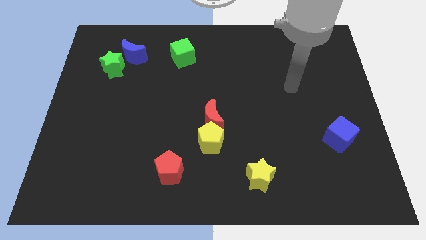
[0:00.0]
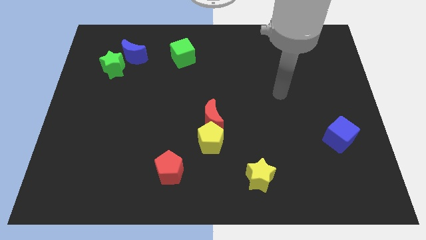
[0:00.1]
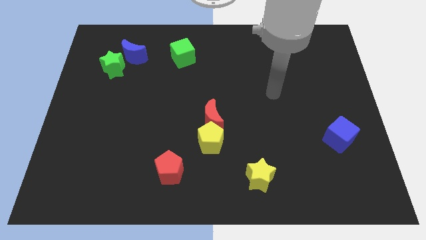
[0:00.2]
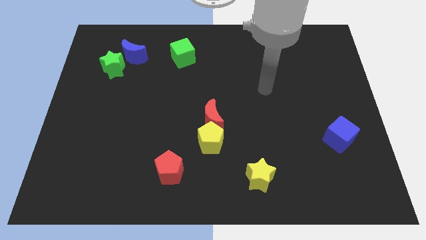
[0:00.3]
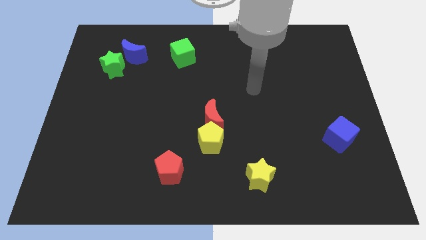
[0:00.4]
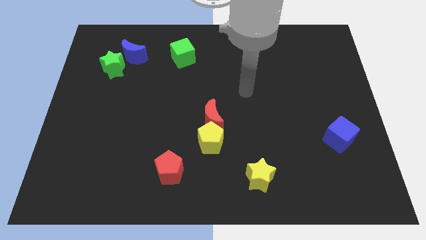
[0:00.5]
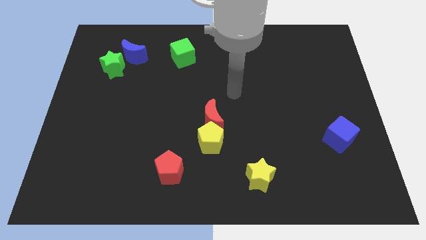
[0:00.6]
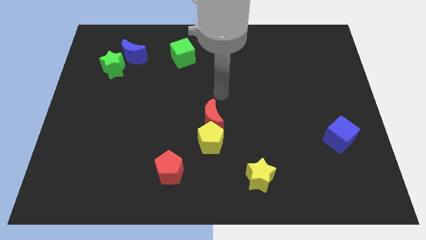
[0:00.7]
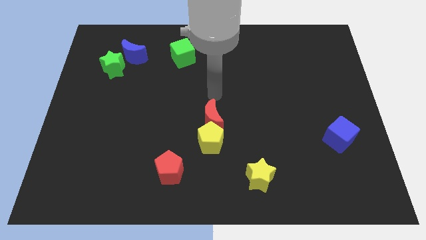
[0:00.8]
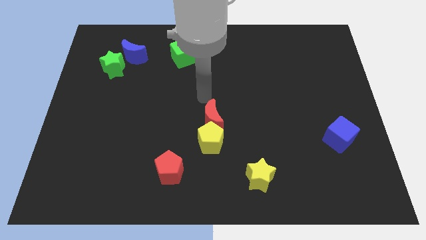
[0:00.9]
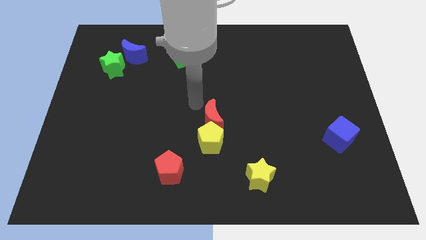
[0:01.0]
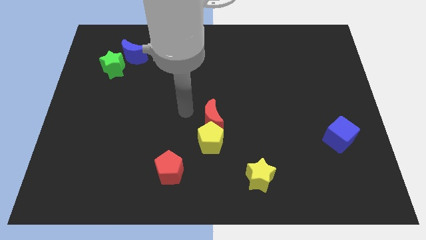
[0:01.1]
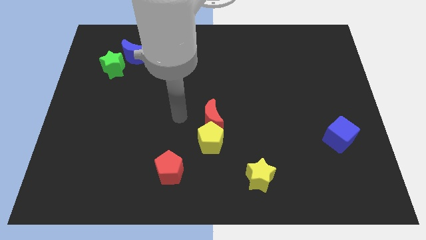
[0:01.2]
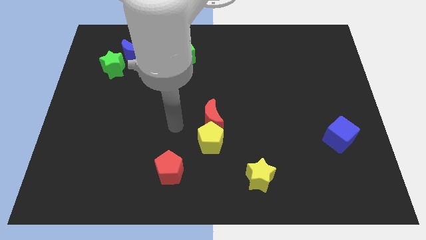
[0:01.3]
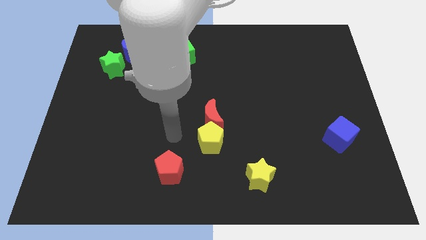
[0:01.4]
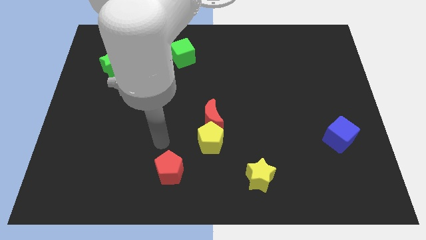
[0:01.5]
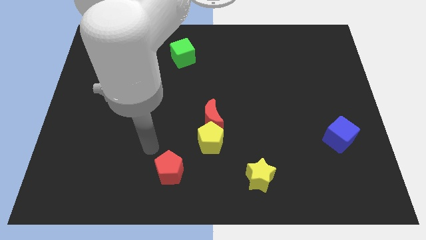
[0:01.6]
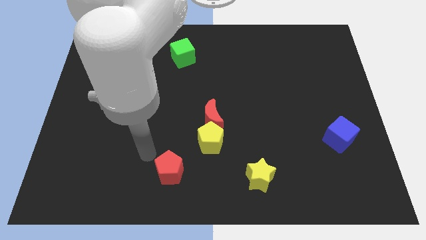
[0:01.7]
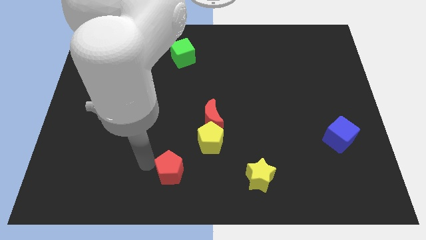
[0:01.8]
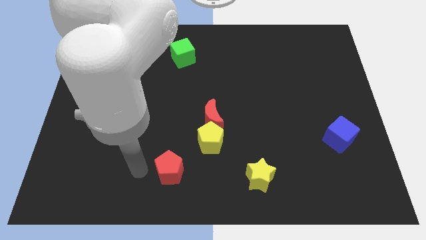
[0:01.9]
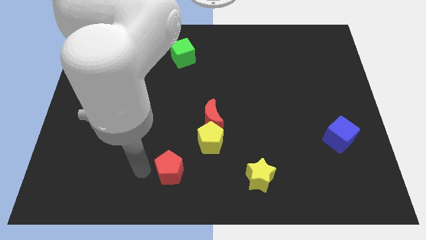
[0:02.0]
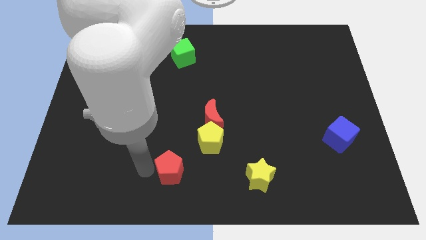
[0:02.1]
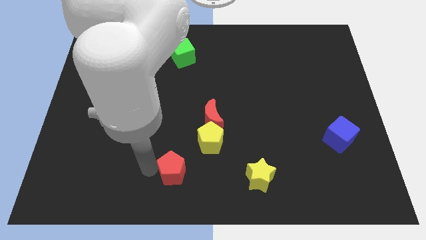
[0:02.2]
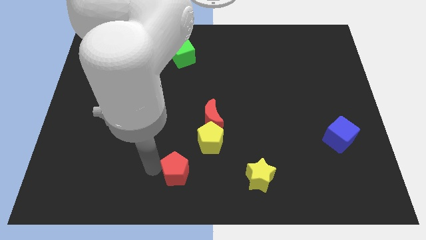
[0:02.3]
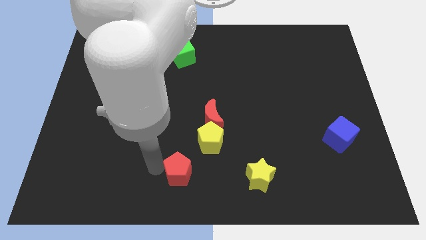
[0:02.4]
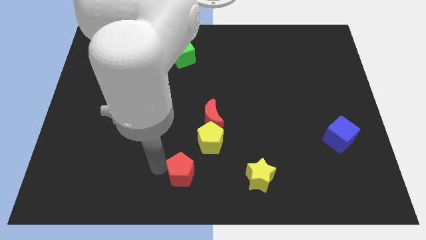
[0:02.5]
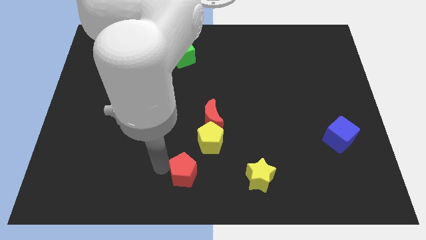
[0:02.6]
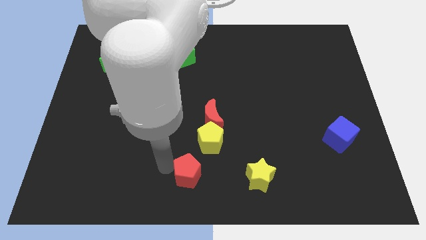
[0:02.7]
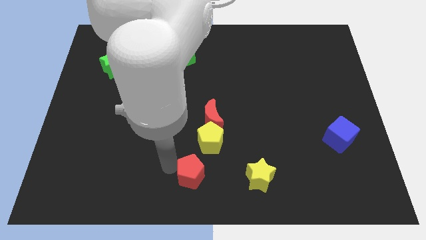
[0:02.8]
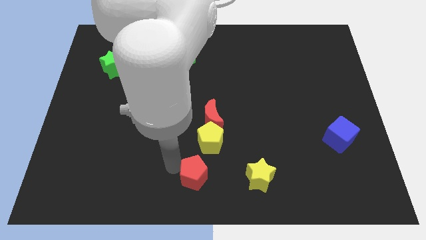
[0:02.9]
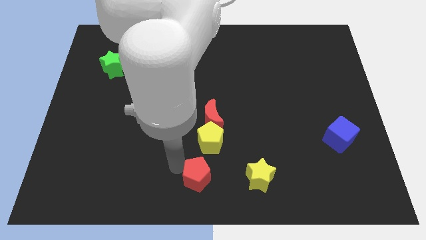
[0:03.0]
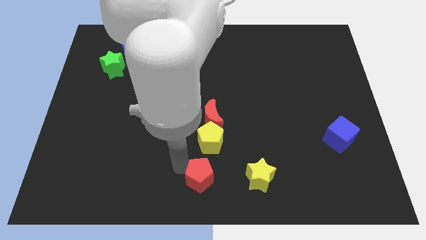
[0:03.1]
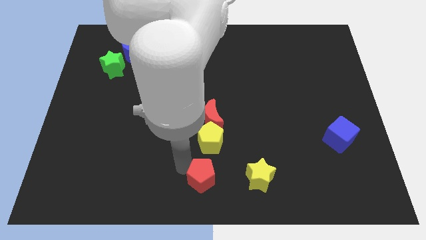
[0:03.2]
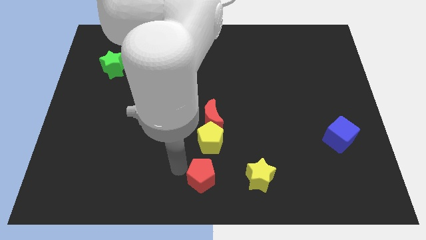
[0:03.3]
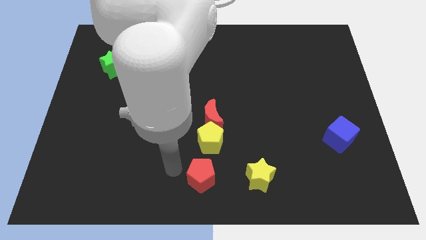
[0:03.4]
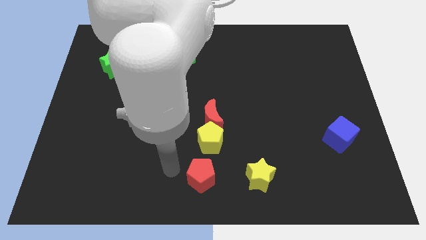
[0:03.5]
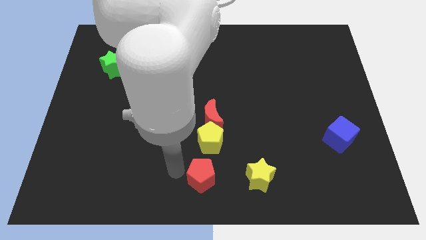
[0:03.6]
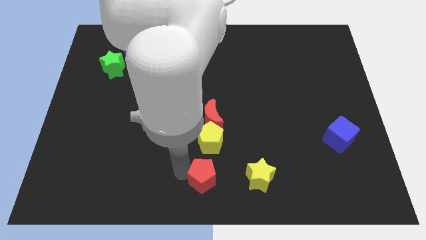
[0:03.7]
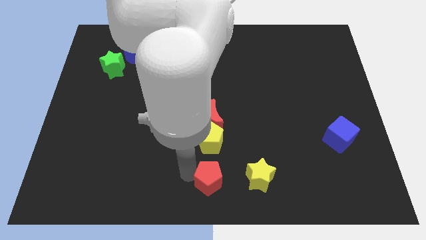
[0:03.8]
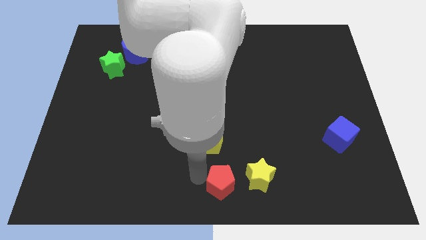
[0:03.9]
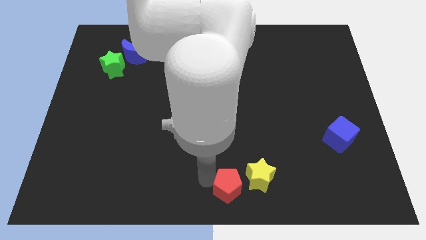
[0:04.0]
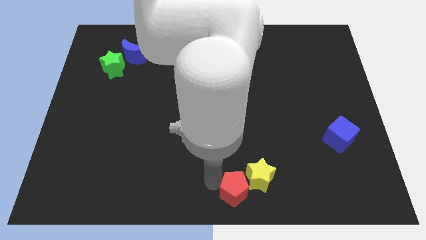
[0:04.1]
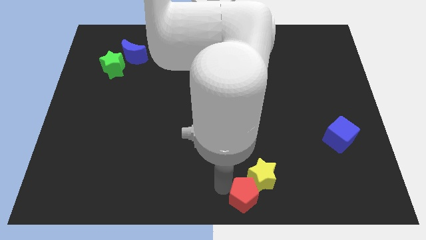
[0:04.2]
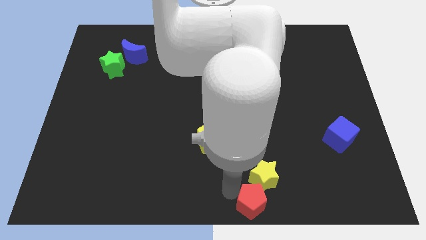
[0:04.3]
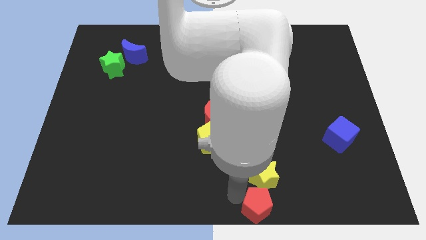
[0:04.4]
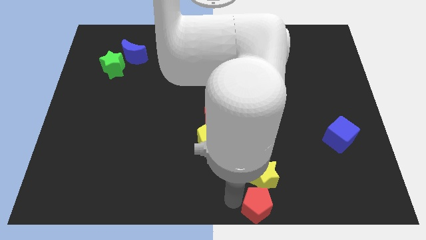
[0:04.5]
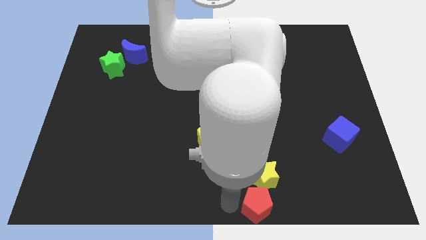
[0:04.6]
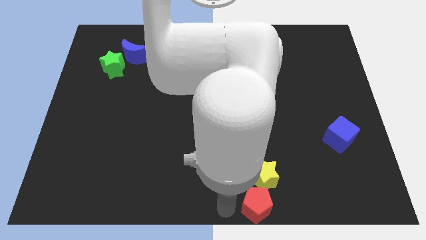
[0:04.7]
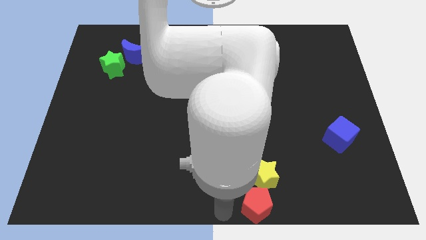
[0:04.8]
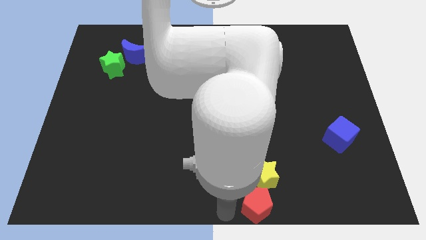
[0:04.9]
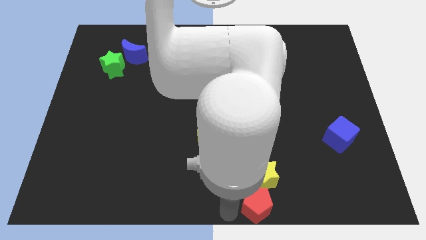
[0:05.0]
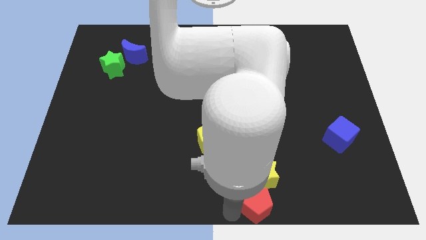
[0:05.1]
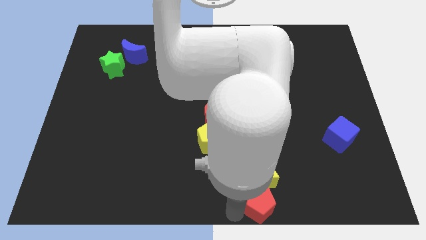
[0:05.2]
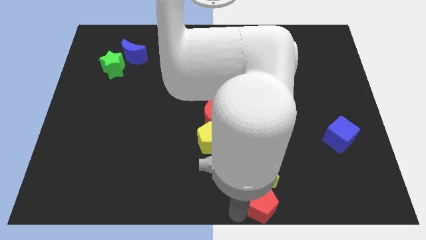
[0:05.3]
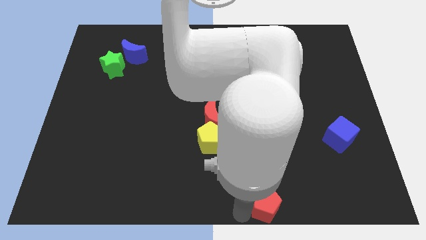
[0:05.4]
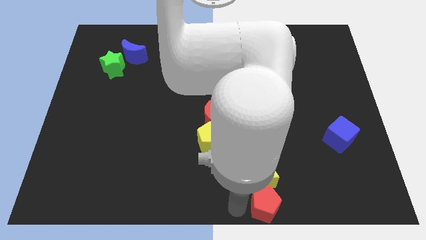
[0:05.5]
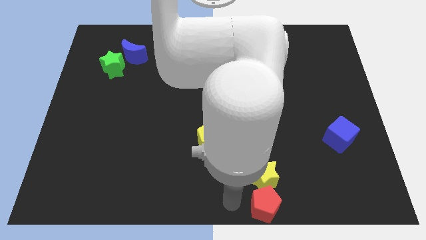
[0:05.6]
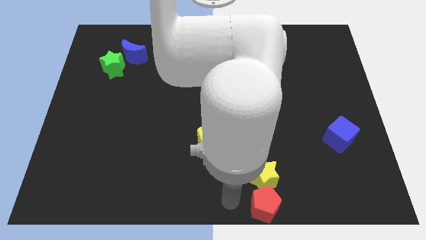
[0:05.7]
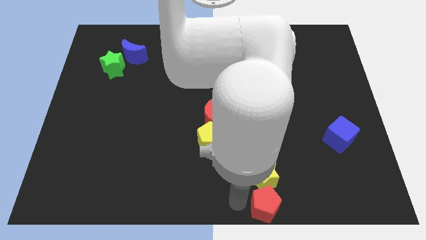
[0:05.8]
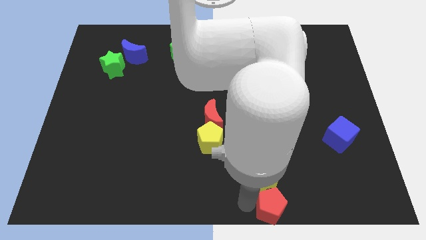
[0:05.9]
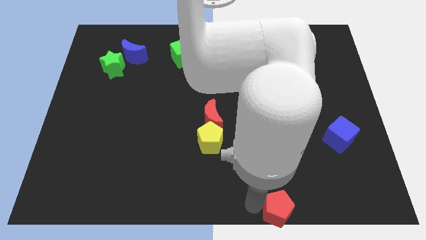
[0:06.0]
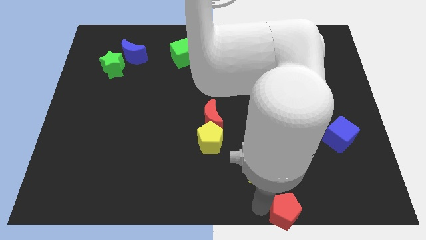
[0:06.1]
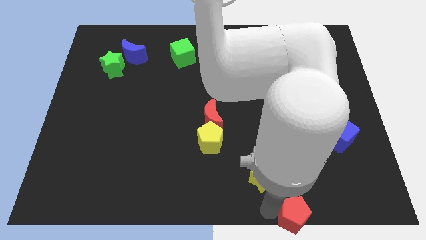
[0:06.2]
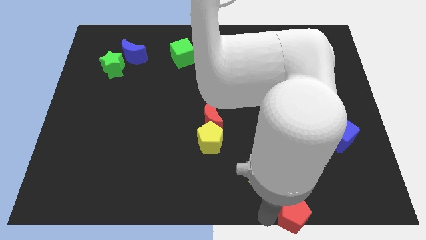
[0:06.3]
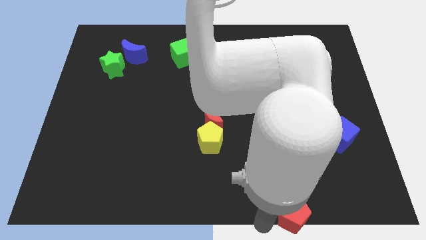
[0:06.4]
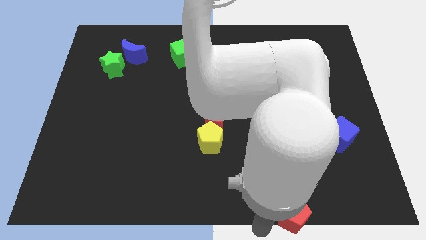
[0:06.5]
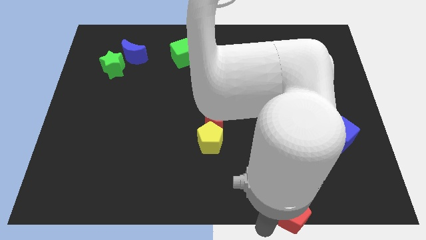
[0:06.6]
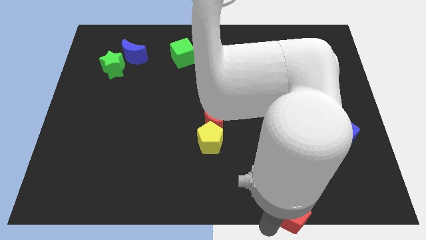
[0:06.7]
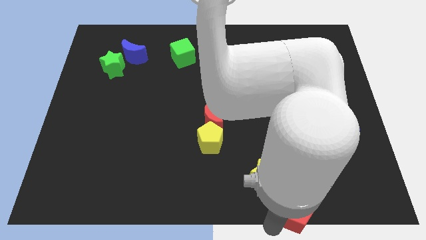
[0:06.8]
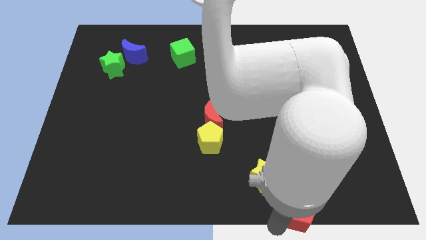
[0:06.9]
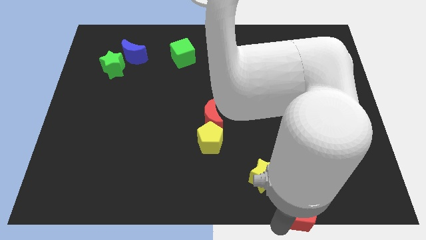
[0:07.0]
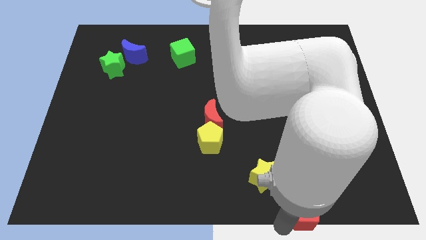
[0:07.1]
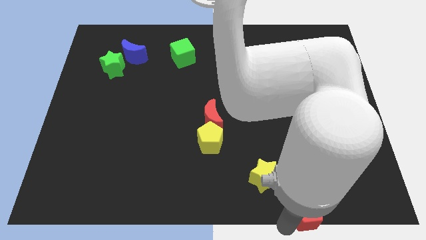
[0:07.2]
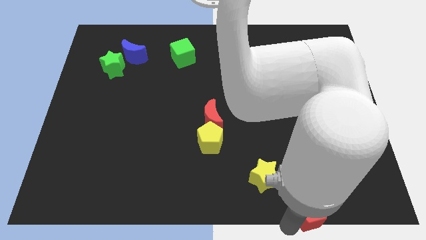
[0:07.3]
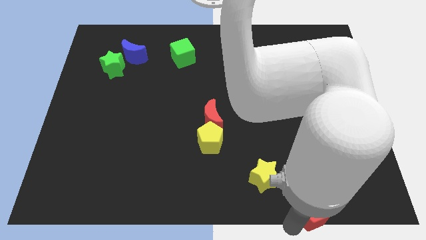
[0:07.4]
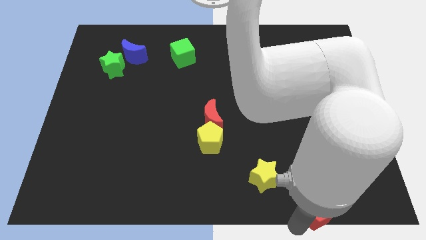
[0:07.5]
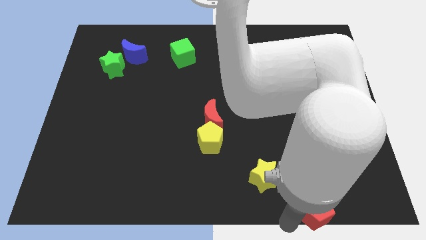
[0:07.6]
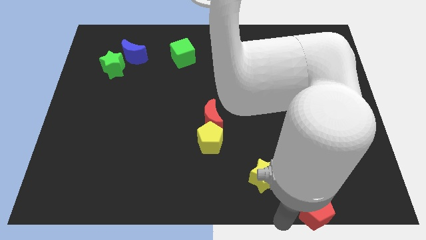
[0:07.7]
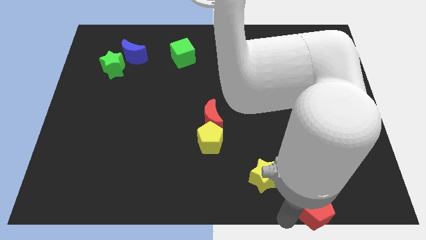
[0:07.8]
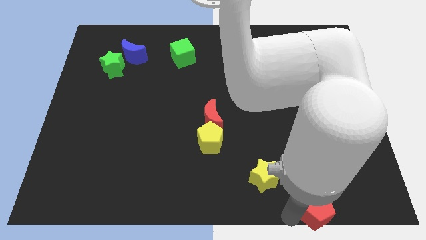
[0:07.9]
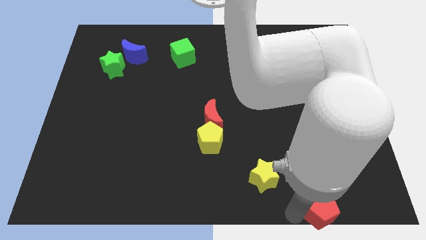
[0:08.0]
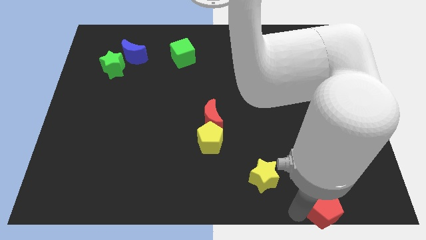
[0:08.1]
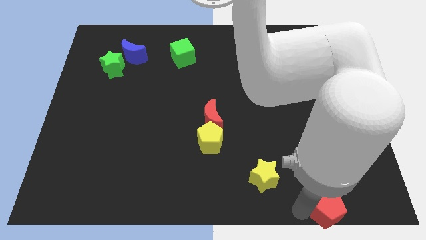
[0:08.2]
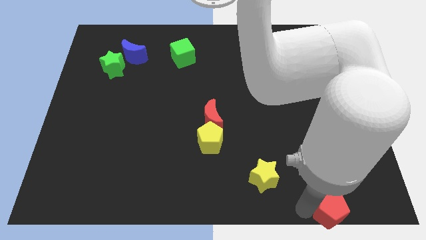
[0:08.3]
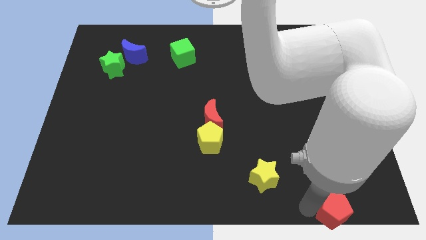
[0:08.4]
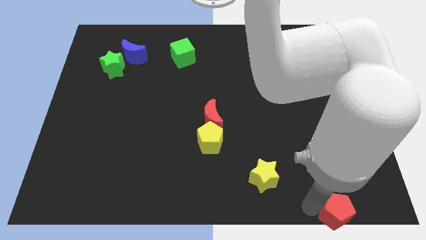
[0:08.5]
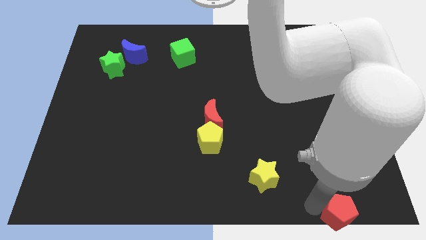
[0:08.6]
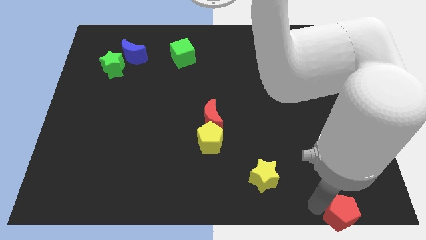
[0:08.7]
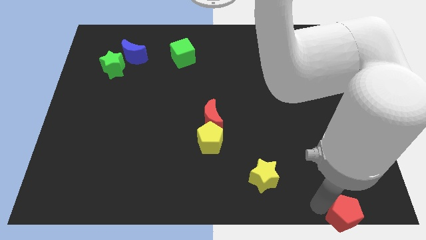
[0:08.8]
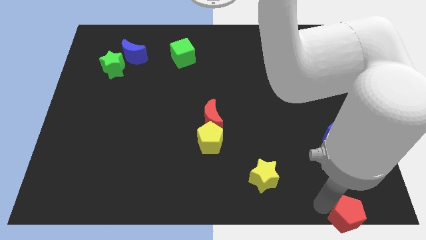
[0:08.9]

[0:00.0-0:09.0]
push the red pentagon to the lower right corner
